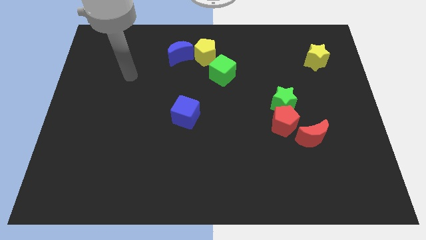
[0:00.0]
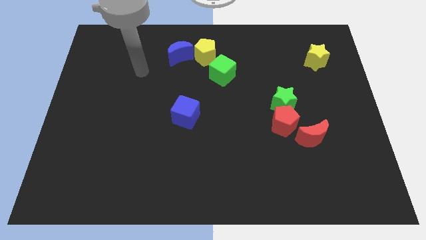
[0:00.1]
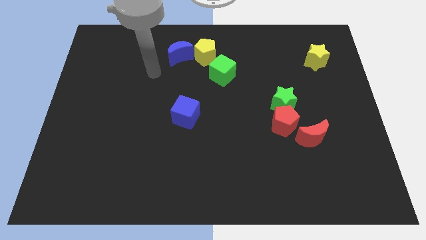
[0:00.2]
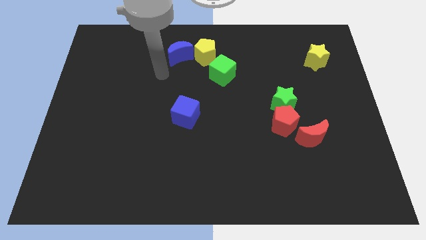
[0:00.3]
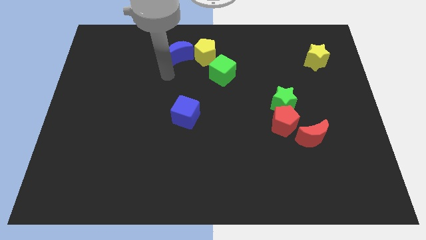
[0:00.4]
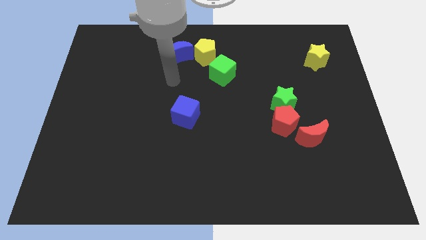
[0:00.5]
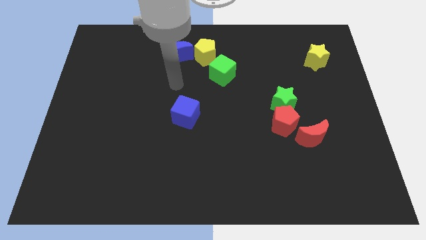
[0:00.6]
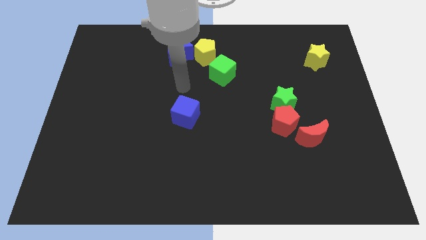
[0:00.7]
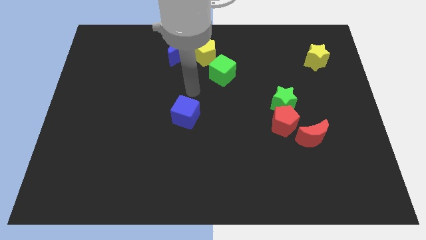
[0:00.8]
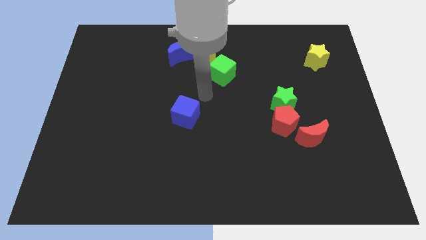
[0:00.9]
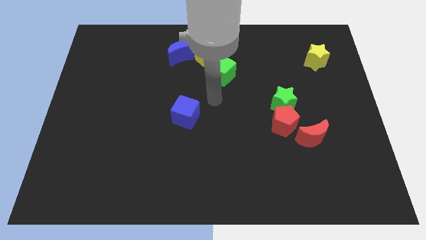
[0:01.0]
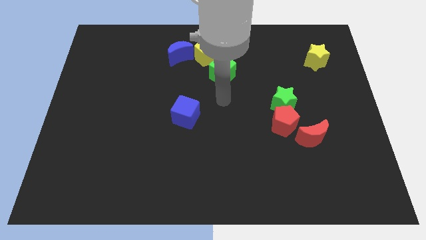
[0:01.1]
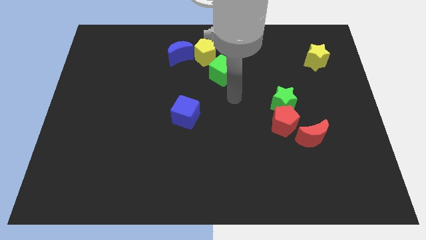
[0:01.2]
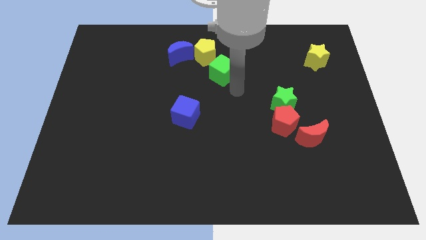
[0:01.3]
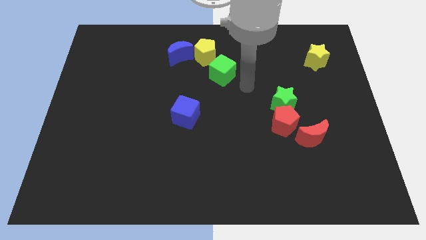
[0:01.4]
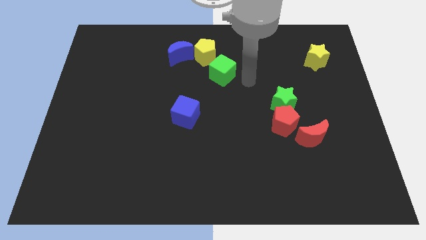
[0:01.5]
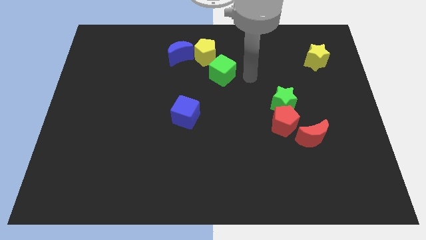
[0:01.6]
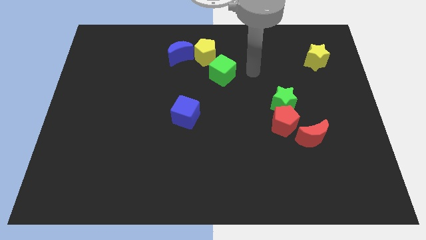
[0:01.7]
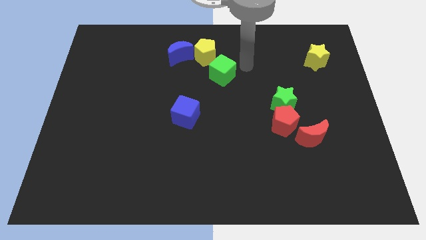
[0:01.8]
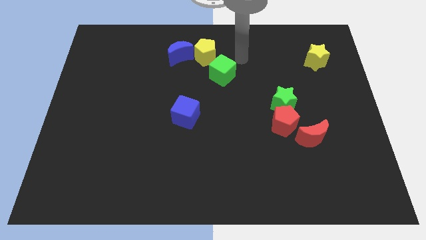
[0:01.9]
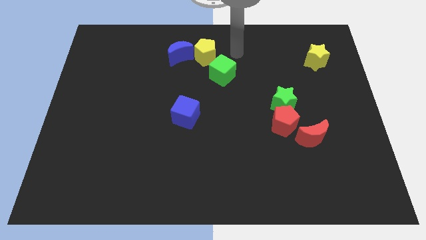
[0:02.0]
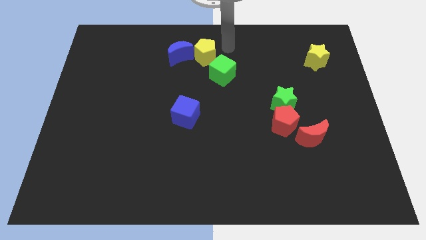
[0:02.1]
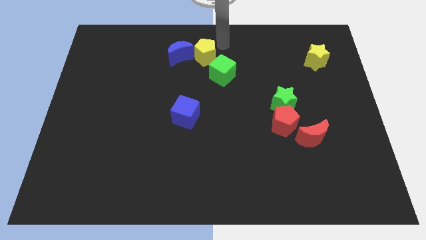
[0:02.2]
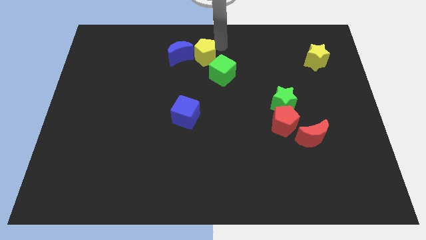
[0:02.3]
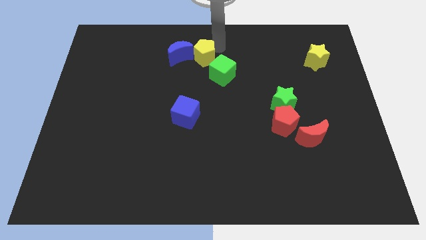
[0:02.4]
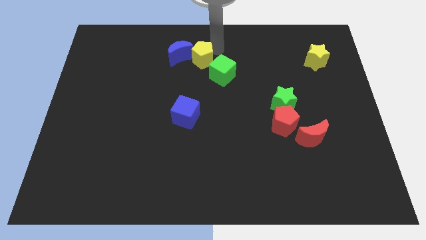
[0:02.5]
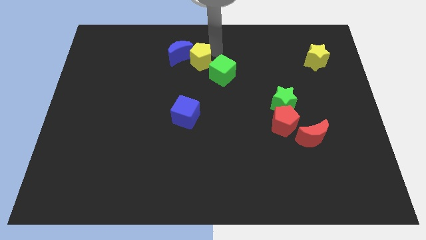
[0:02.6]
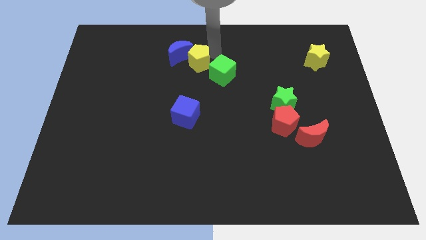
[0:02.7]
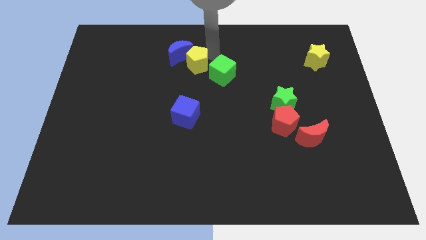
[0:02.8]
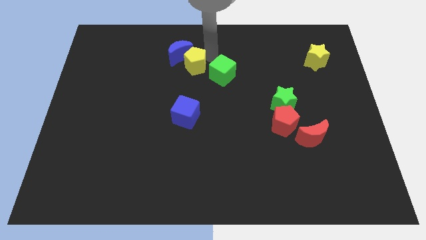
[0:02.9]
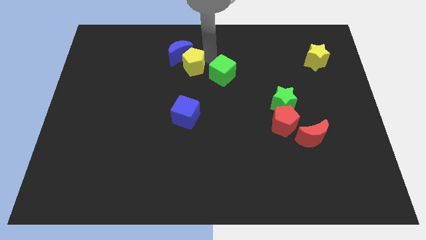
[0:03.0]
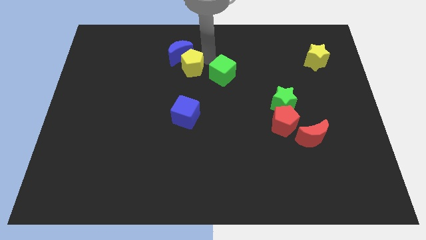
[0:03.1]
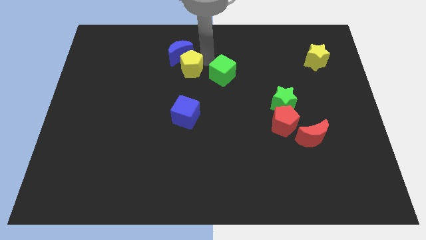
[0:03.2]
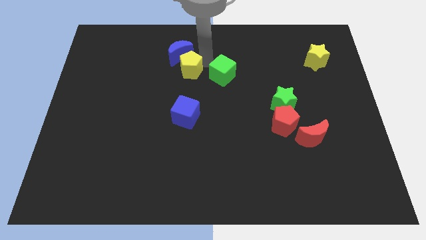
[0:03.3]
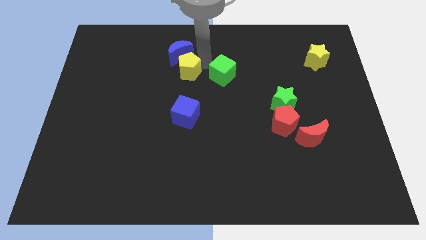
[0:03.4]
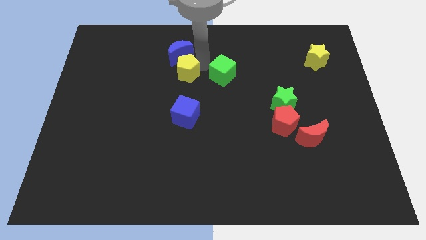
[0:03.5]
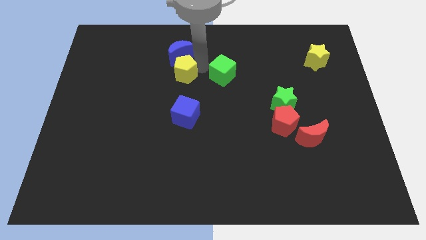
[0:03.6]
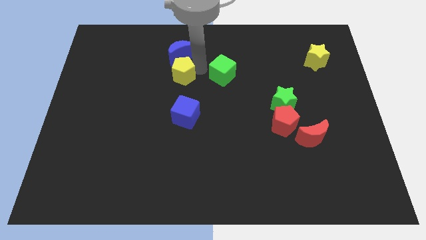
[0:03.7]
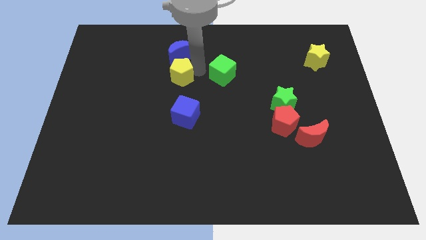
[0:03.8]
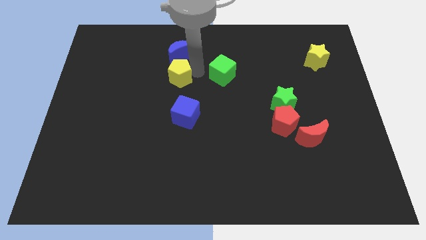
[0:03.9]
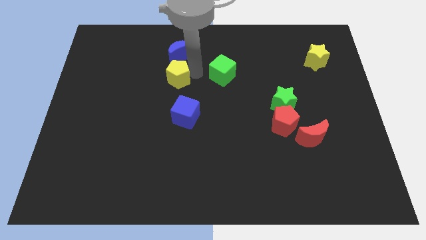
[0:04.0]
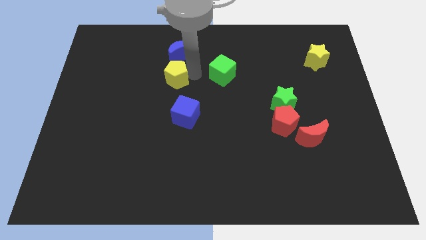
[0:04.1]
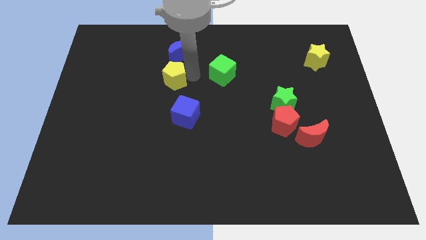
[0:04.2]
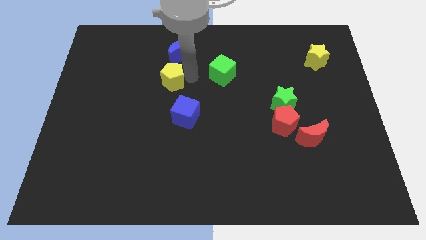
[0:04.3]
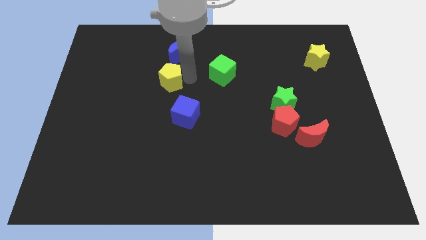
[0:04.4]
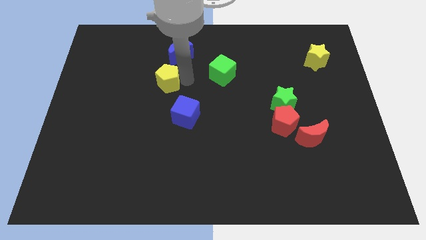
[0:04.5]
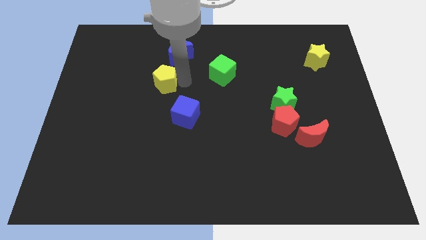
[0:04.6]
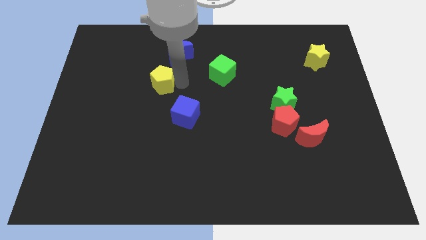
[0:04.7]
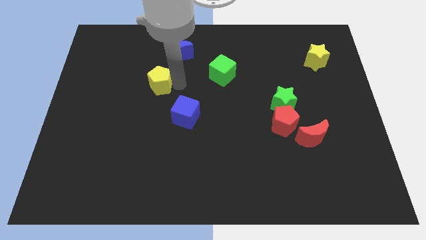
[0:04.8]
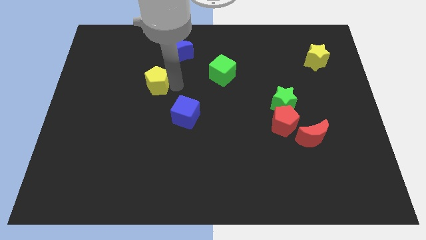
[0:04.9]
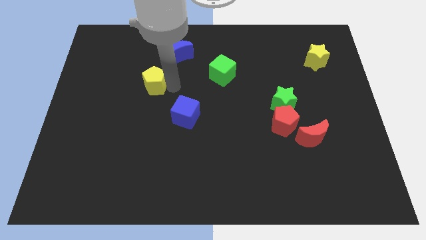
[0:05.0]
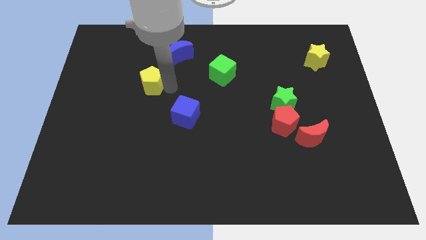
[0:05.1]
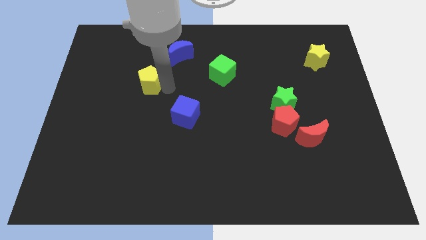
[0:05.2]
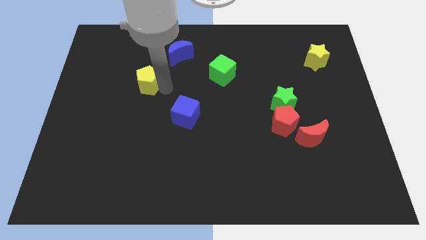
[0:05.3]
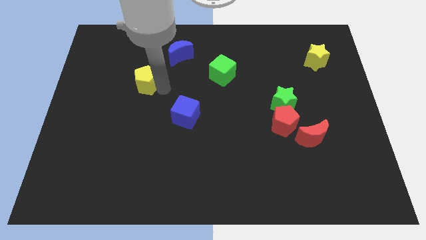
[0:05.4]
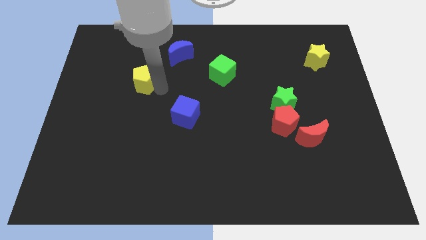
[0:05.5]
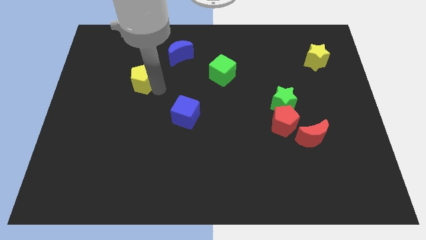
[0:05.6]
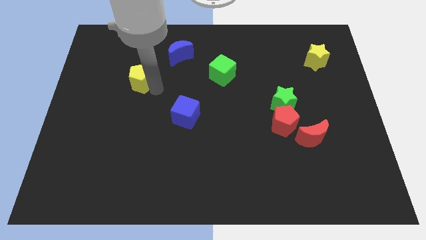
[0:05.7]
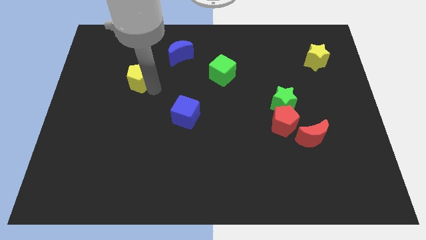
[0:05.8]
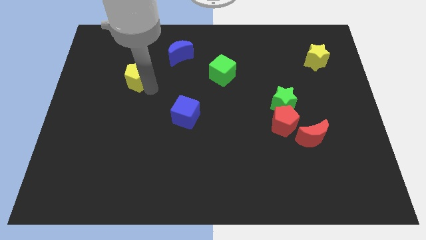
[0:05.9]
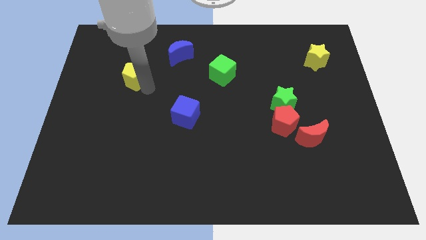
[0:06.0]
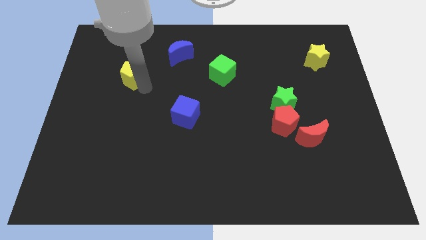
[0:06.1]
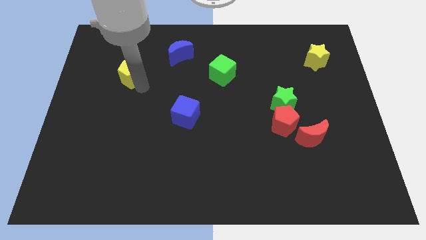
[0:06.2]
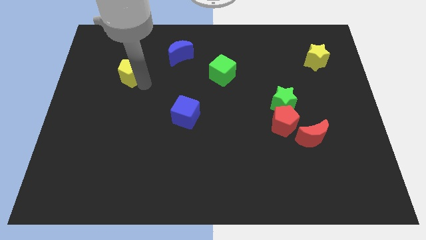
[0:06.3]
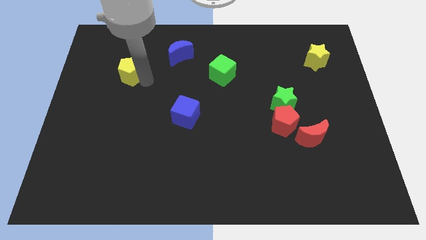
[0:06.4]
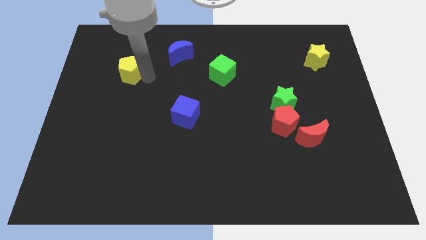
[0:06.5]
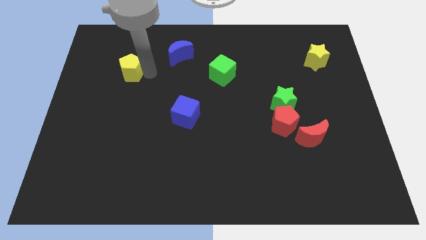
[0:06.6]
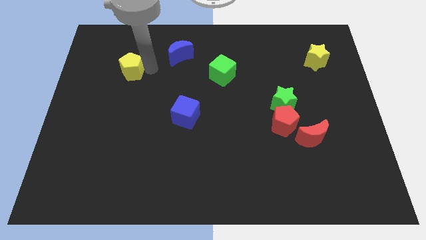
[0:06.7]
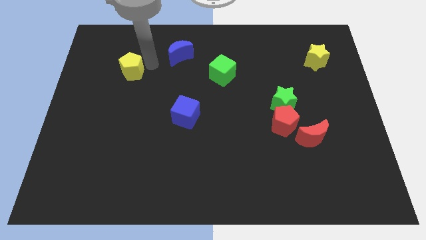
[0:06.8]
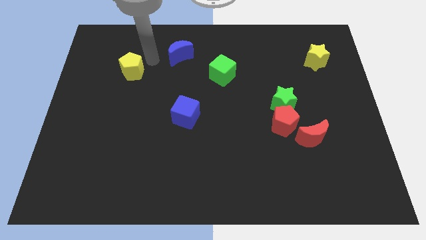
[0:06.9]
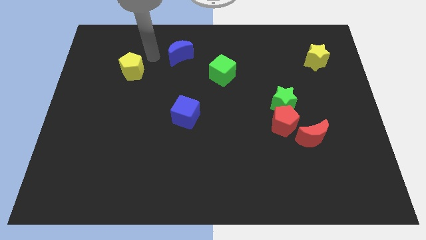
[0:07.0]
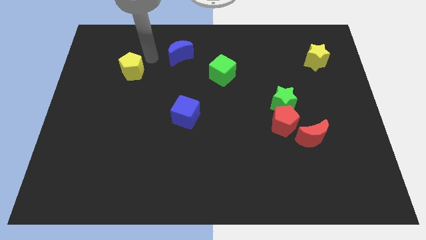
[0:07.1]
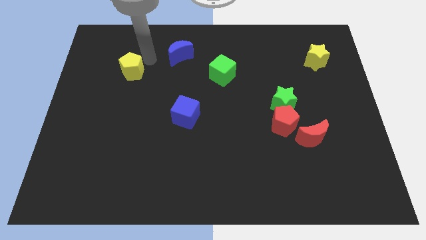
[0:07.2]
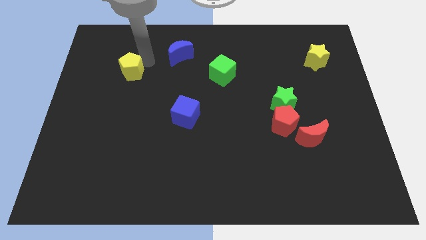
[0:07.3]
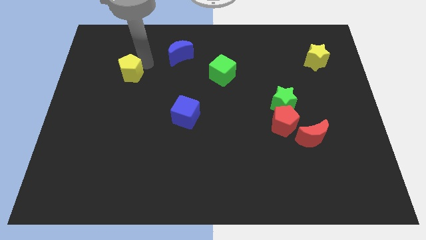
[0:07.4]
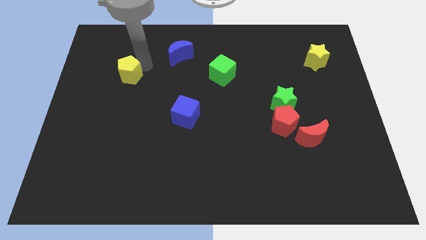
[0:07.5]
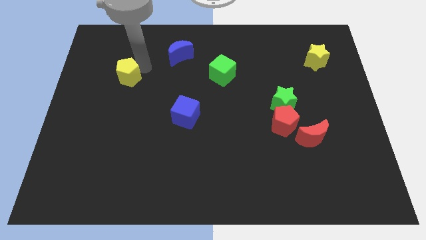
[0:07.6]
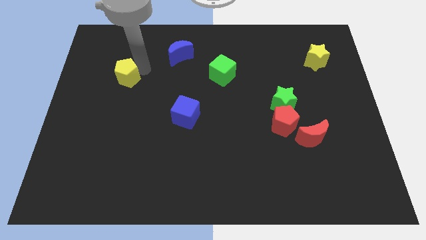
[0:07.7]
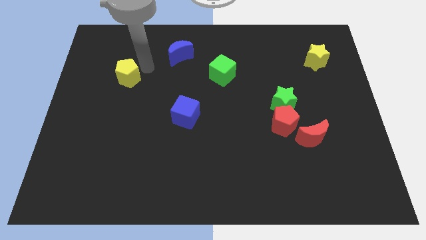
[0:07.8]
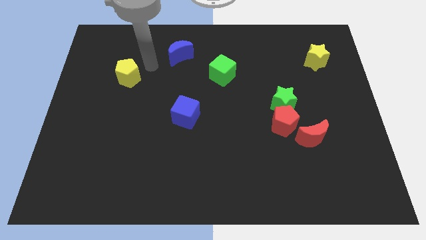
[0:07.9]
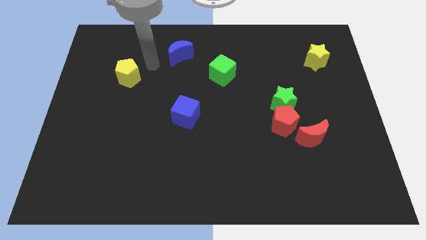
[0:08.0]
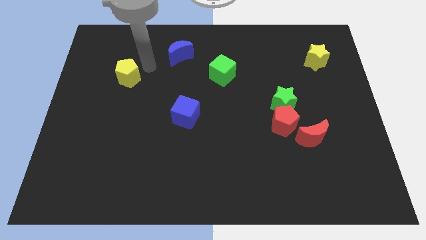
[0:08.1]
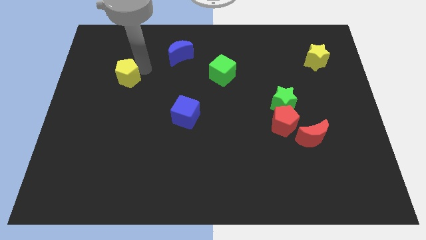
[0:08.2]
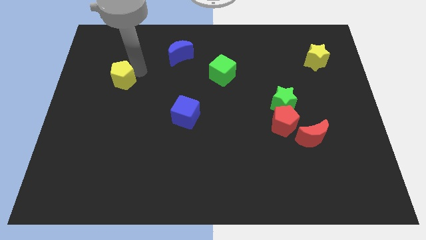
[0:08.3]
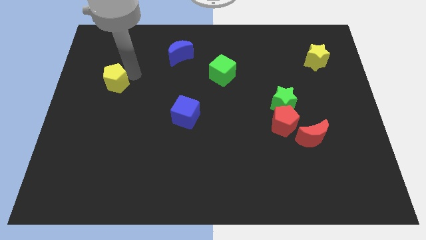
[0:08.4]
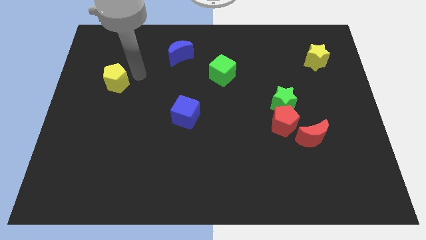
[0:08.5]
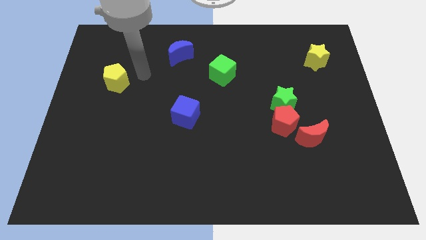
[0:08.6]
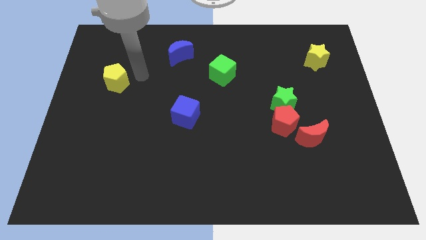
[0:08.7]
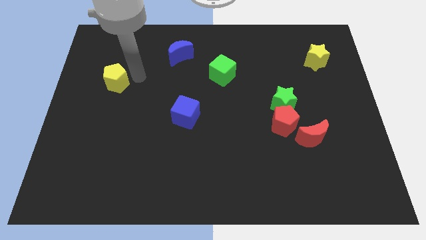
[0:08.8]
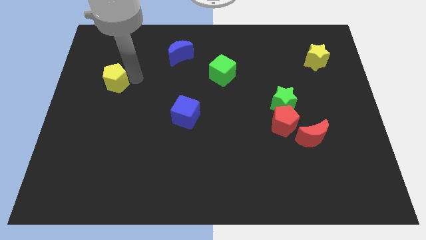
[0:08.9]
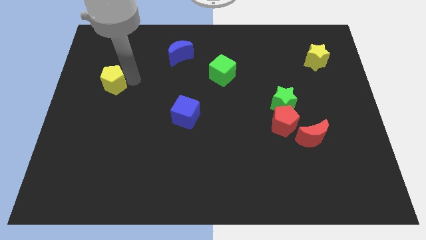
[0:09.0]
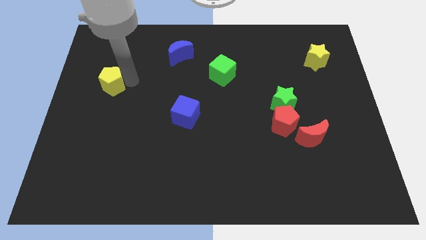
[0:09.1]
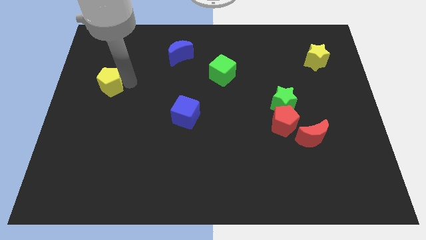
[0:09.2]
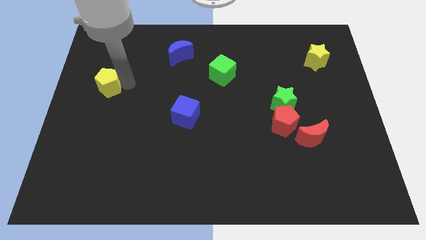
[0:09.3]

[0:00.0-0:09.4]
push the yellow pentagon to the left side of the board
